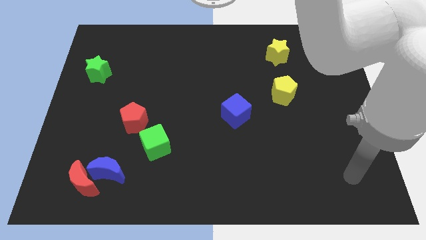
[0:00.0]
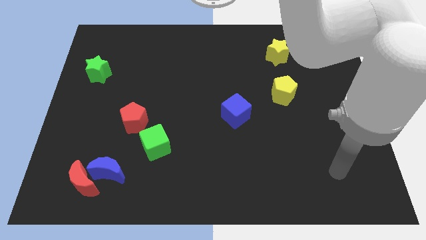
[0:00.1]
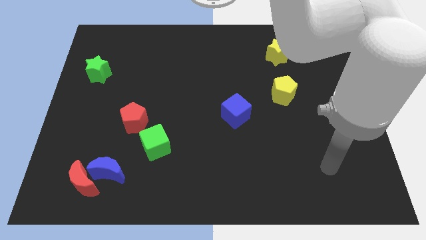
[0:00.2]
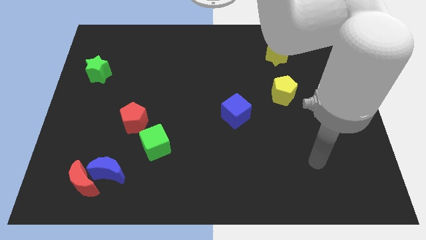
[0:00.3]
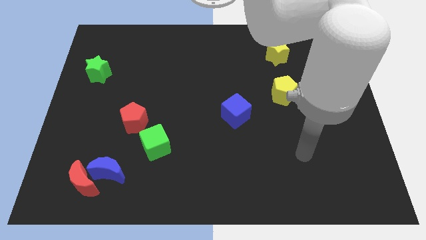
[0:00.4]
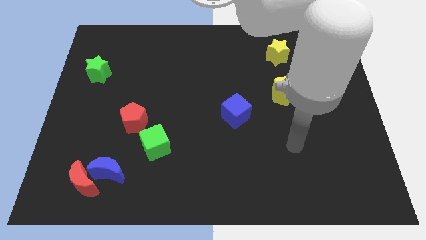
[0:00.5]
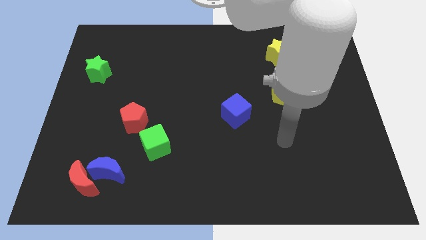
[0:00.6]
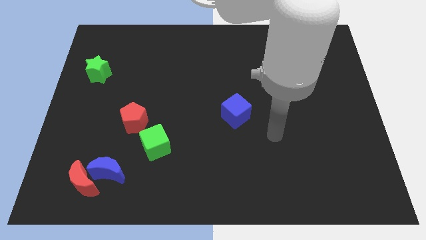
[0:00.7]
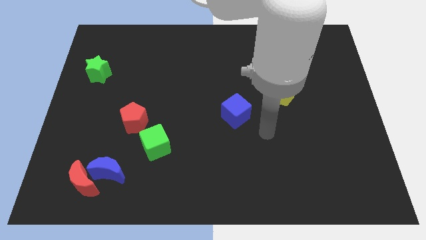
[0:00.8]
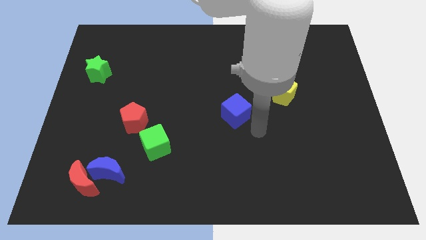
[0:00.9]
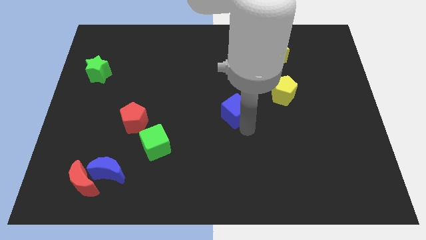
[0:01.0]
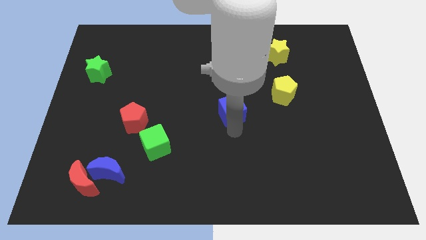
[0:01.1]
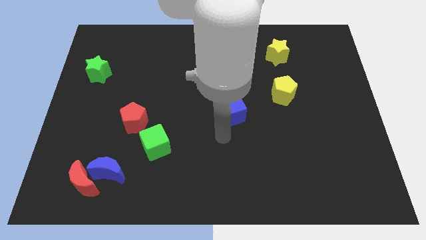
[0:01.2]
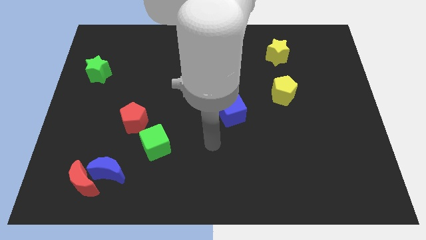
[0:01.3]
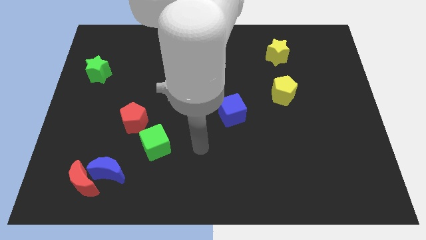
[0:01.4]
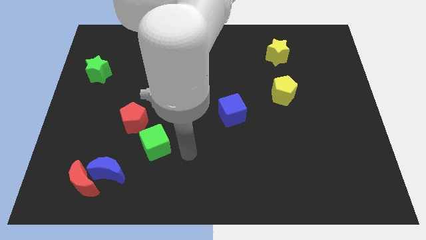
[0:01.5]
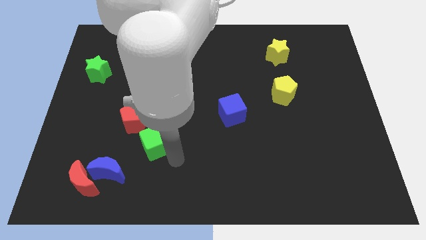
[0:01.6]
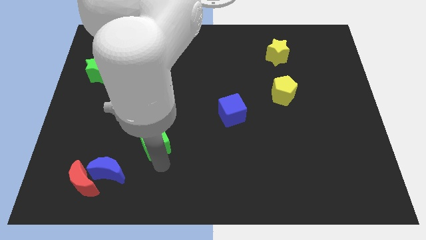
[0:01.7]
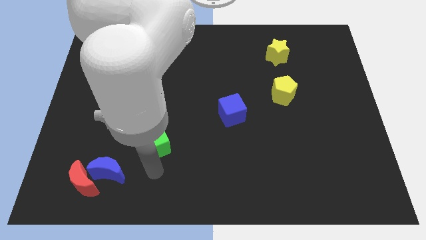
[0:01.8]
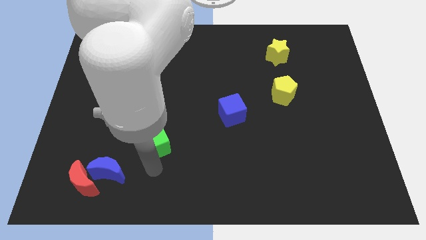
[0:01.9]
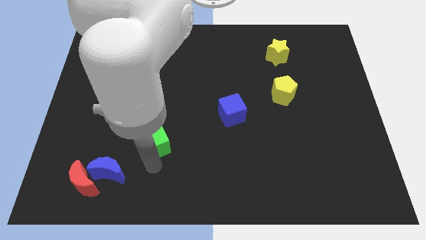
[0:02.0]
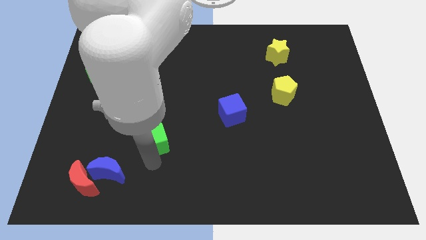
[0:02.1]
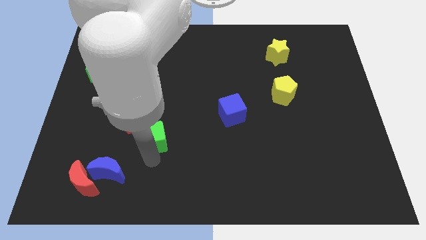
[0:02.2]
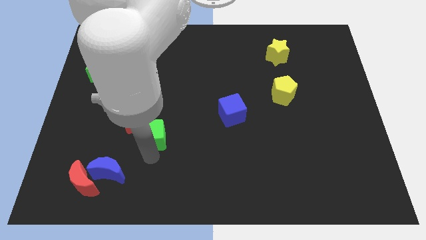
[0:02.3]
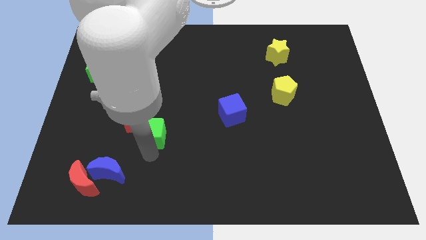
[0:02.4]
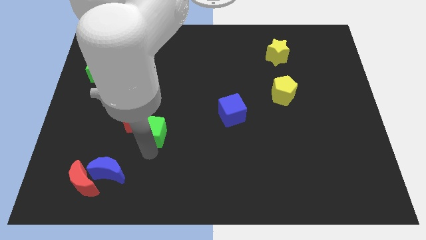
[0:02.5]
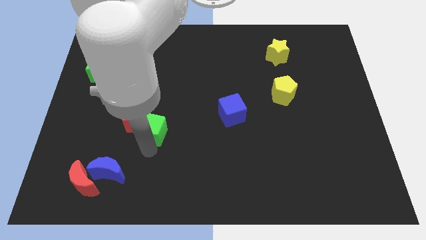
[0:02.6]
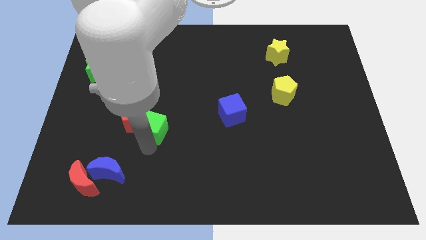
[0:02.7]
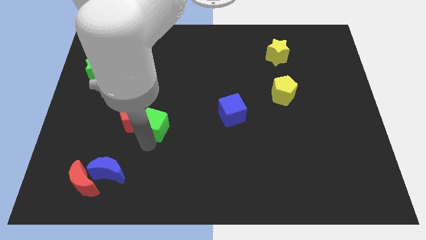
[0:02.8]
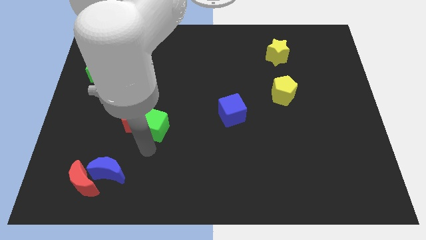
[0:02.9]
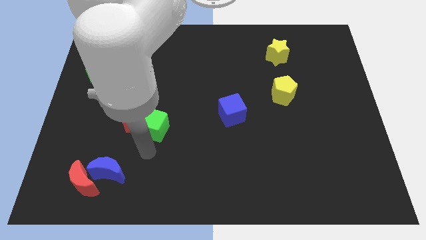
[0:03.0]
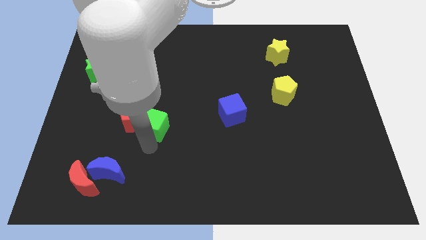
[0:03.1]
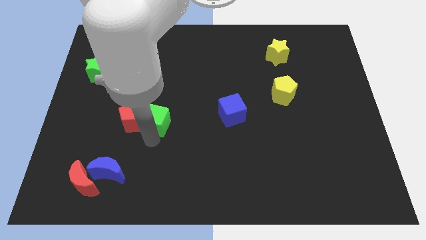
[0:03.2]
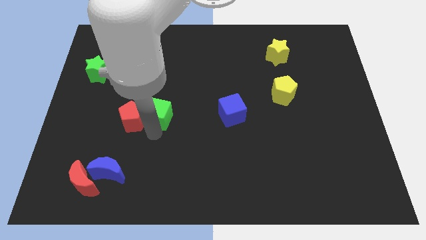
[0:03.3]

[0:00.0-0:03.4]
slightly slide the green cube up

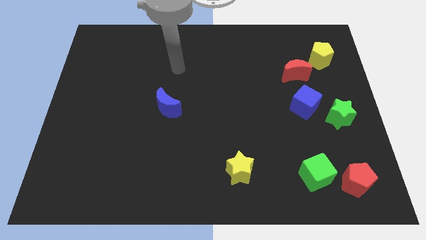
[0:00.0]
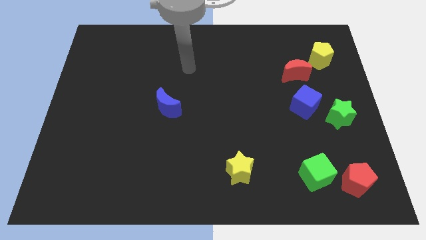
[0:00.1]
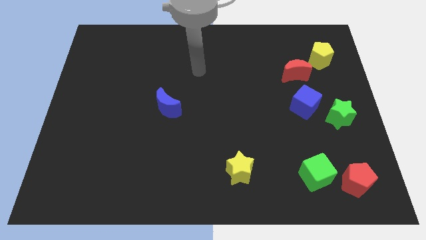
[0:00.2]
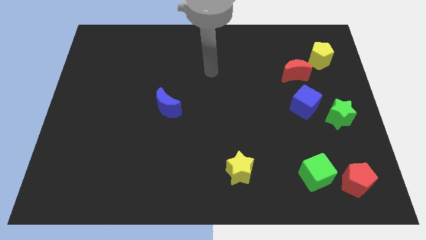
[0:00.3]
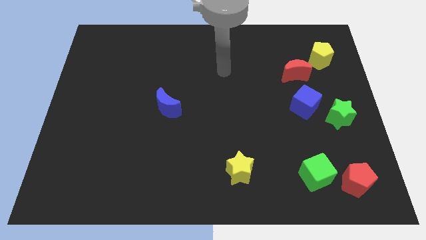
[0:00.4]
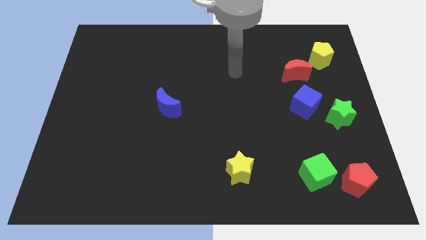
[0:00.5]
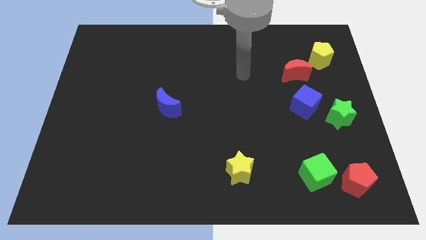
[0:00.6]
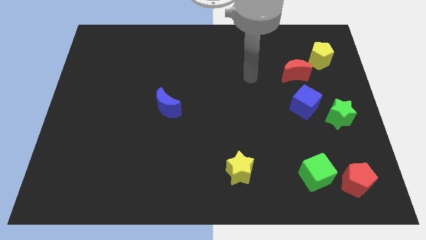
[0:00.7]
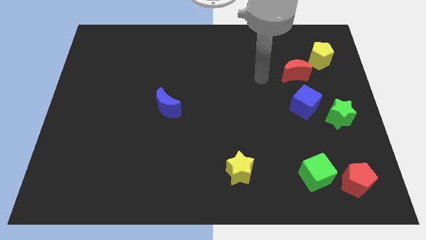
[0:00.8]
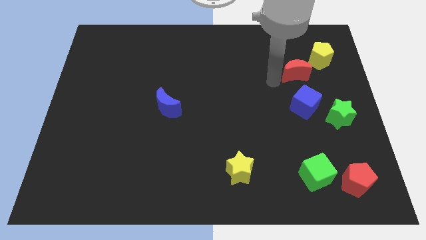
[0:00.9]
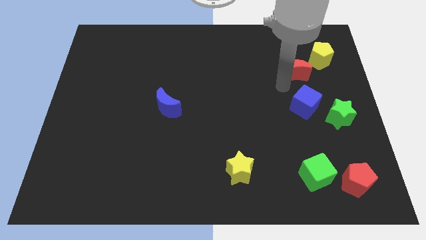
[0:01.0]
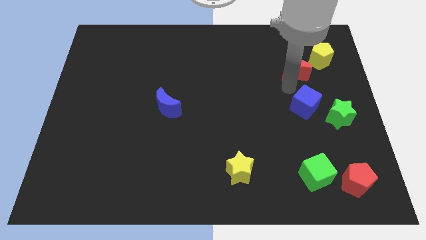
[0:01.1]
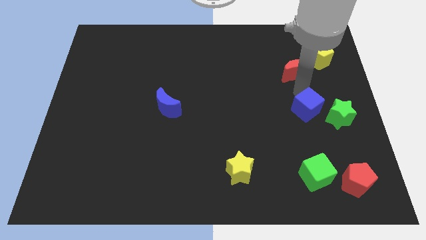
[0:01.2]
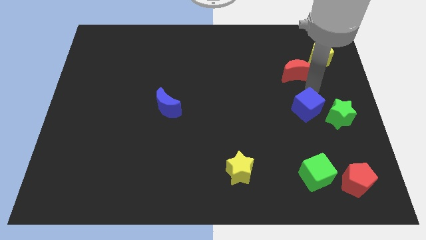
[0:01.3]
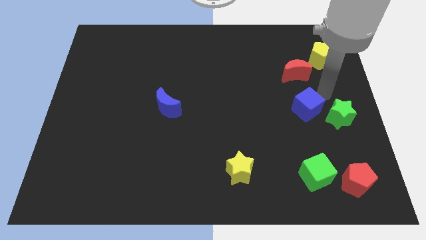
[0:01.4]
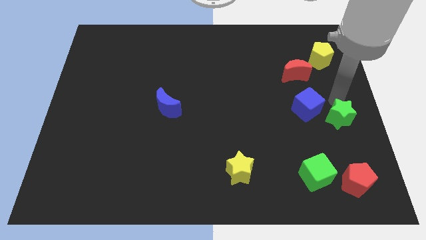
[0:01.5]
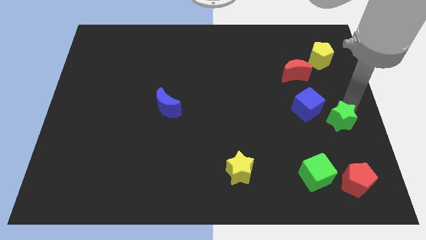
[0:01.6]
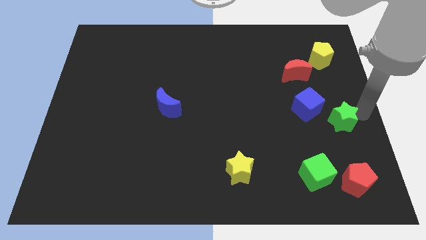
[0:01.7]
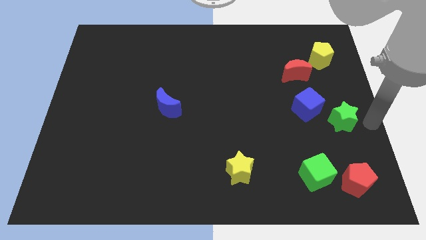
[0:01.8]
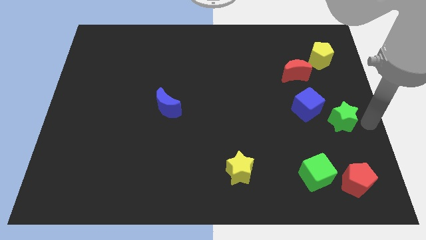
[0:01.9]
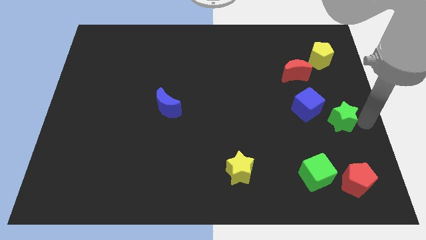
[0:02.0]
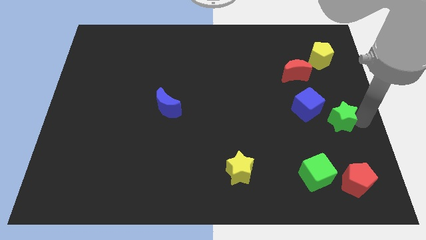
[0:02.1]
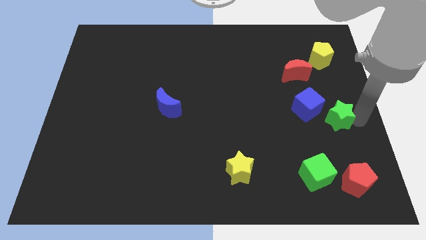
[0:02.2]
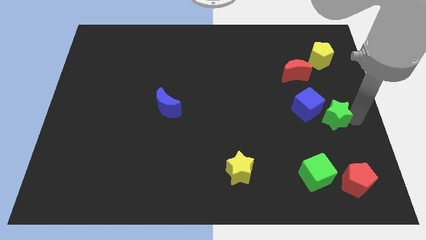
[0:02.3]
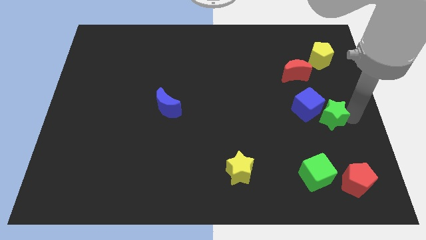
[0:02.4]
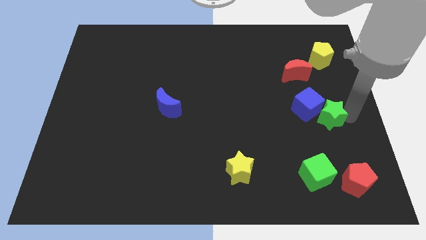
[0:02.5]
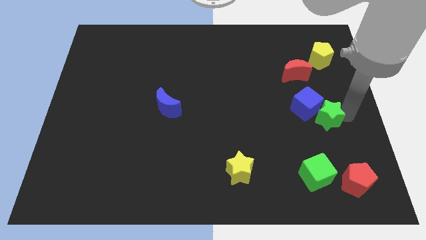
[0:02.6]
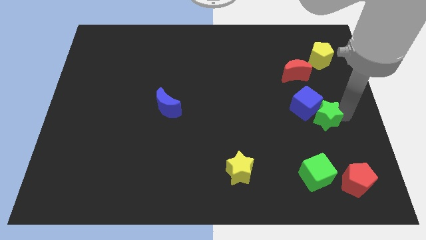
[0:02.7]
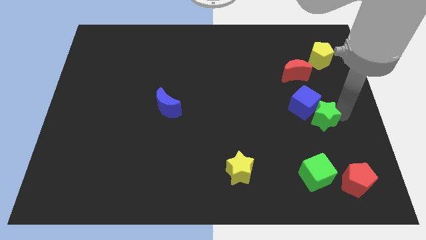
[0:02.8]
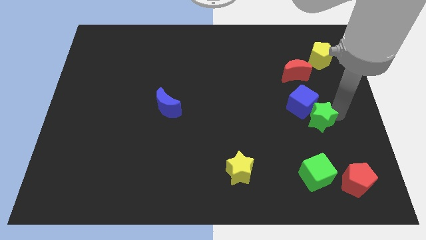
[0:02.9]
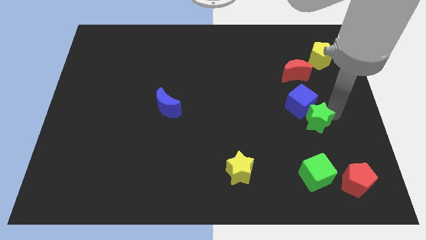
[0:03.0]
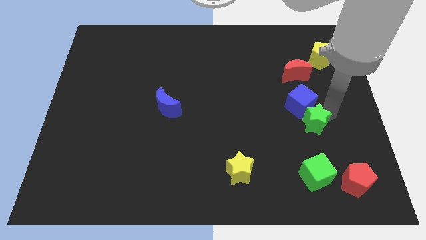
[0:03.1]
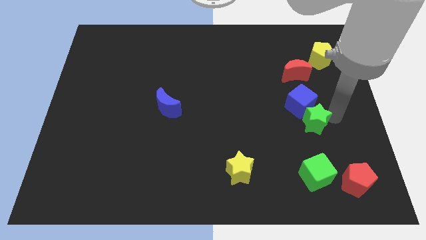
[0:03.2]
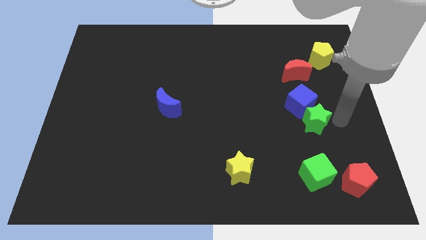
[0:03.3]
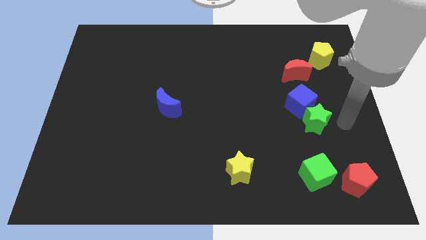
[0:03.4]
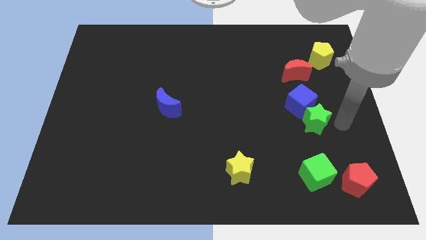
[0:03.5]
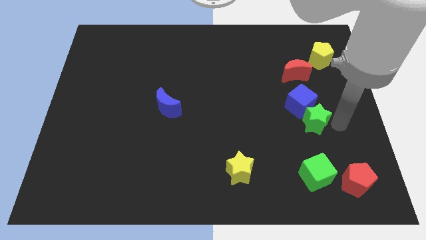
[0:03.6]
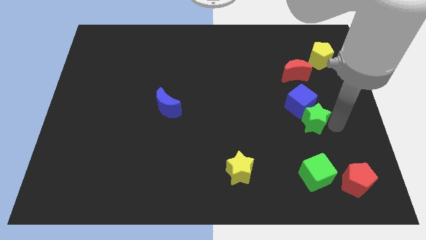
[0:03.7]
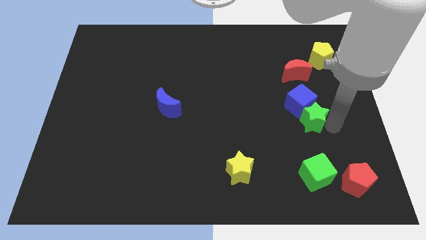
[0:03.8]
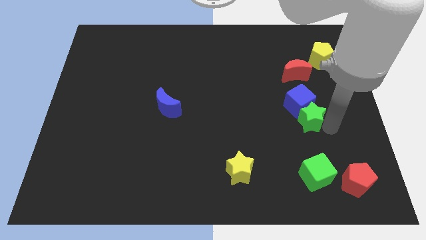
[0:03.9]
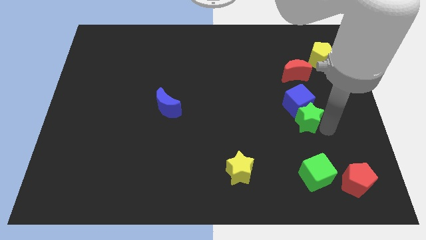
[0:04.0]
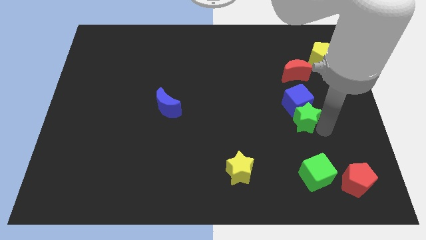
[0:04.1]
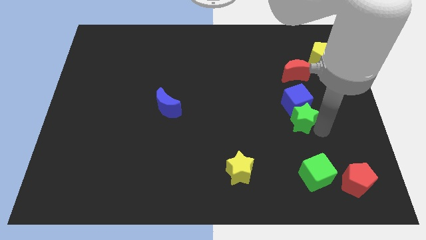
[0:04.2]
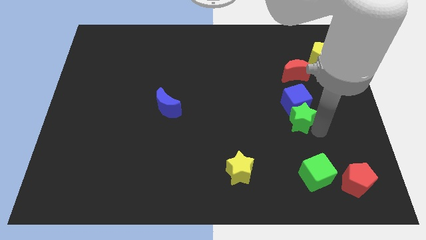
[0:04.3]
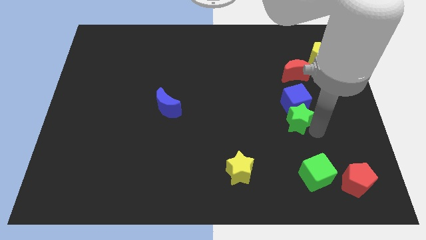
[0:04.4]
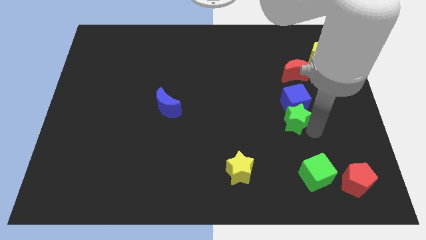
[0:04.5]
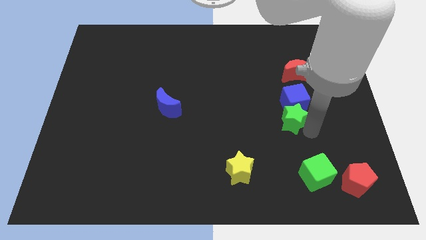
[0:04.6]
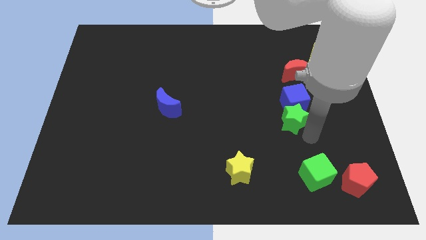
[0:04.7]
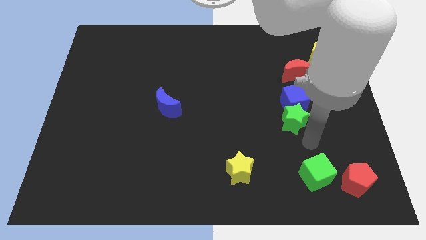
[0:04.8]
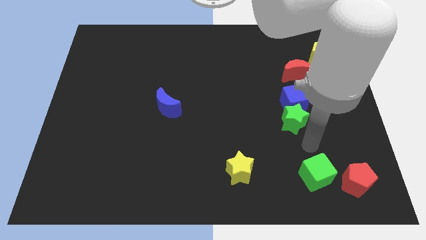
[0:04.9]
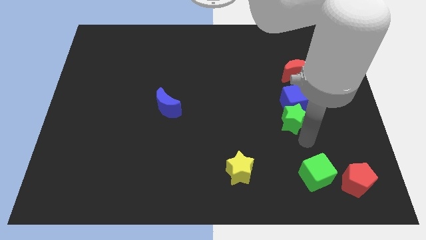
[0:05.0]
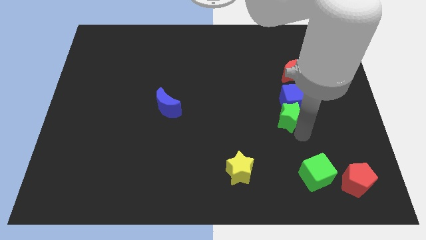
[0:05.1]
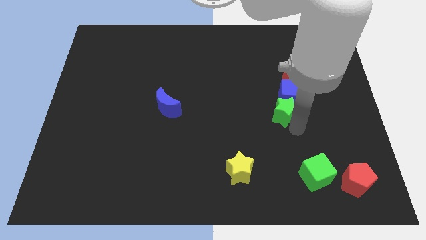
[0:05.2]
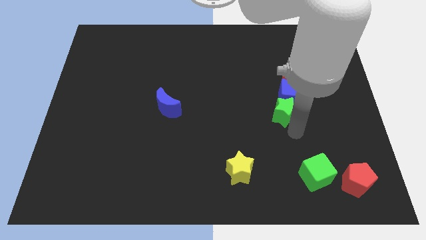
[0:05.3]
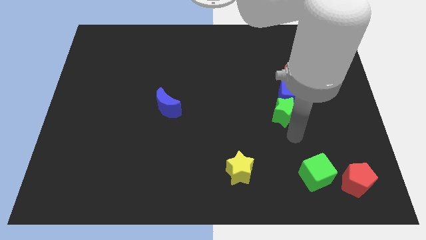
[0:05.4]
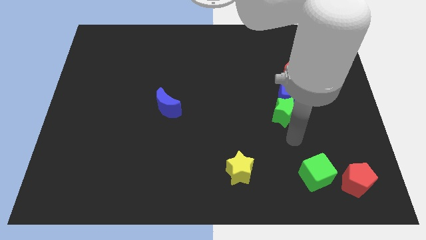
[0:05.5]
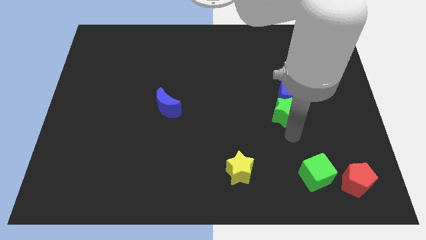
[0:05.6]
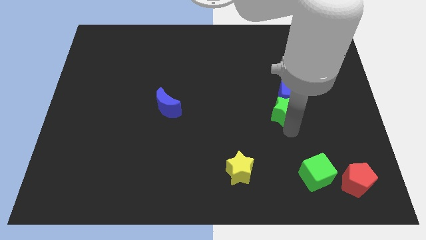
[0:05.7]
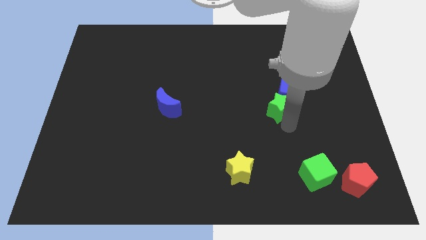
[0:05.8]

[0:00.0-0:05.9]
slide the green star upwards and then left a bit
